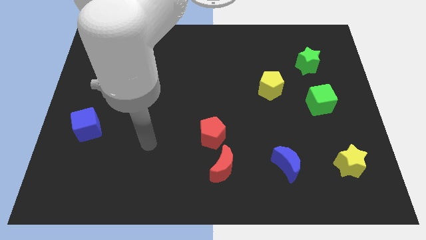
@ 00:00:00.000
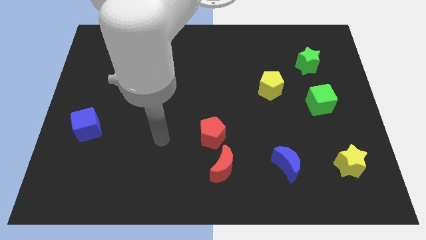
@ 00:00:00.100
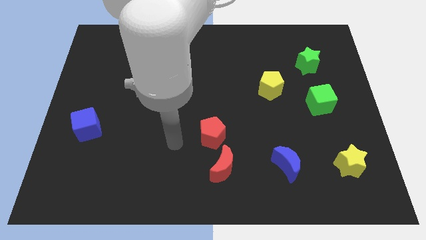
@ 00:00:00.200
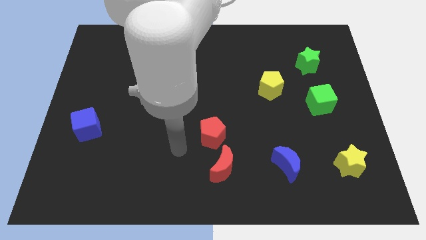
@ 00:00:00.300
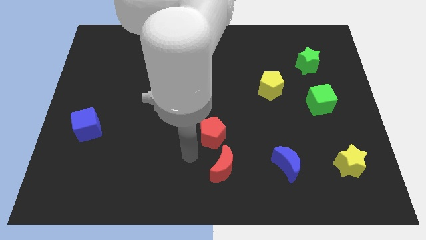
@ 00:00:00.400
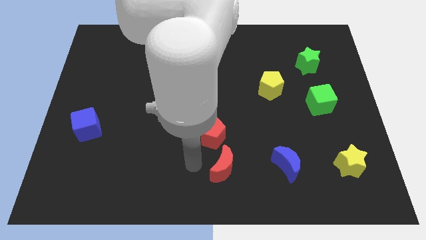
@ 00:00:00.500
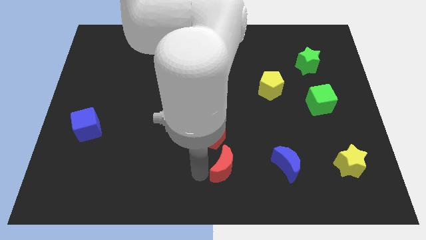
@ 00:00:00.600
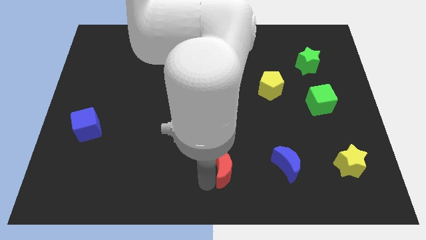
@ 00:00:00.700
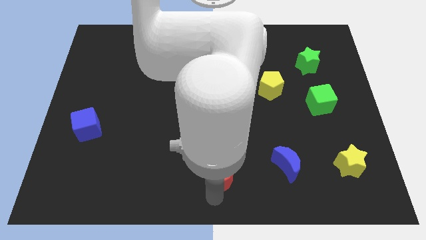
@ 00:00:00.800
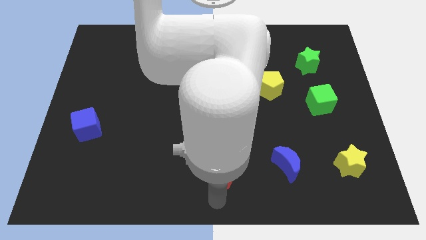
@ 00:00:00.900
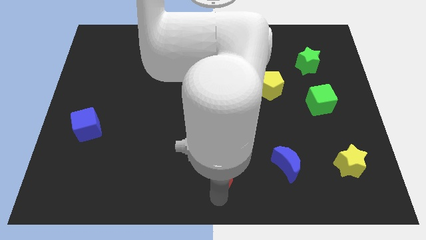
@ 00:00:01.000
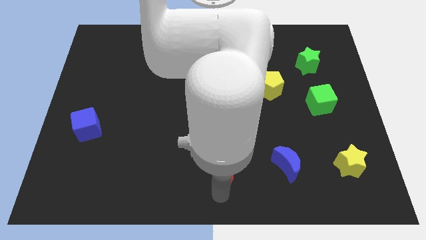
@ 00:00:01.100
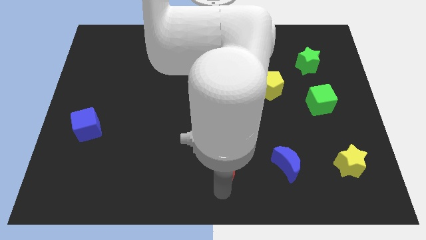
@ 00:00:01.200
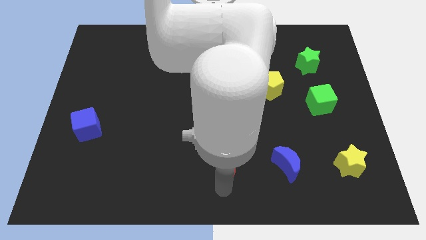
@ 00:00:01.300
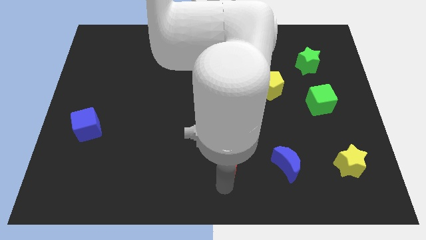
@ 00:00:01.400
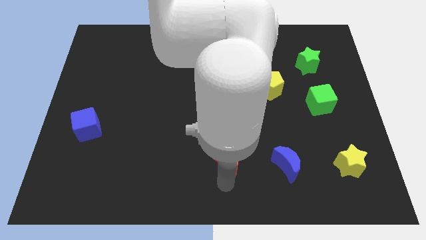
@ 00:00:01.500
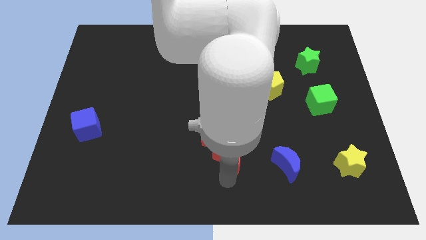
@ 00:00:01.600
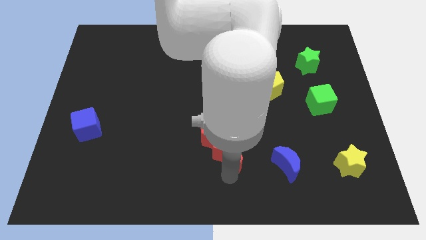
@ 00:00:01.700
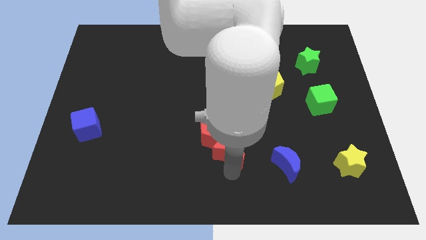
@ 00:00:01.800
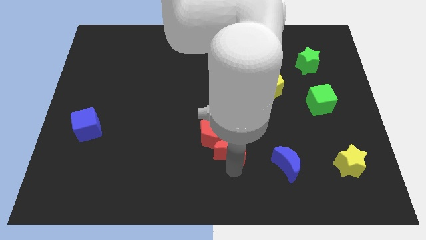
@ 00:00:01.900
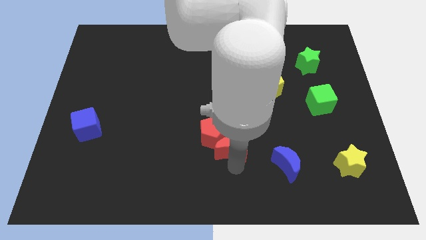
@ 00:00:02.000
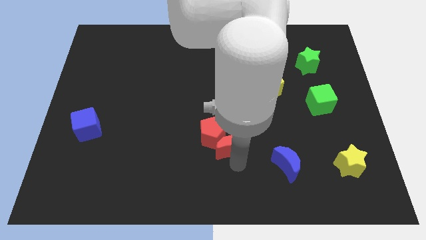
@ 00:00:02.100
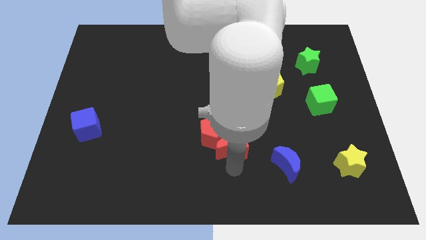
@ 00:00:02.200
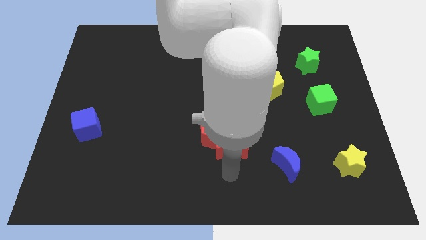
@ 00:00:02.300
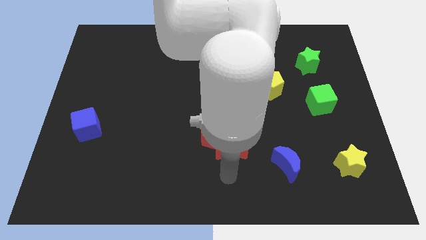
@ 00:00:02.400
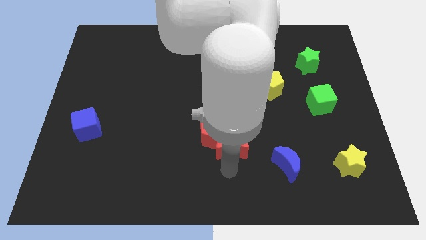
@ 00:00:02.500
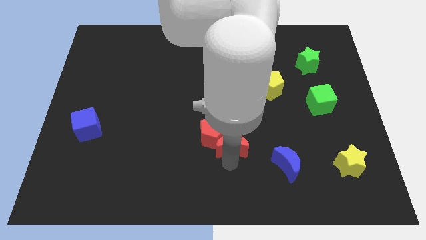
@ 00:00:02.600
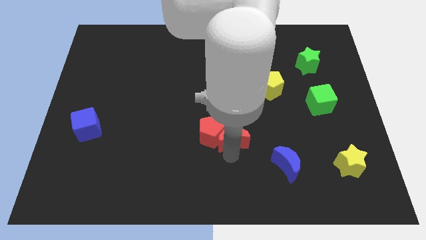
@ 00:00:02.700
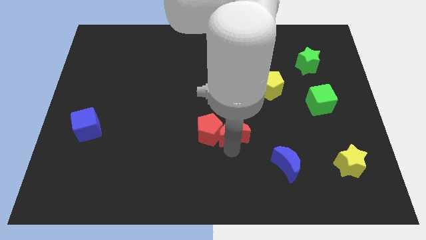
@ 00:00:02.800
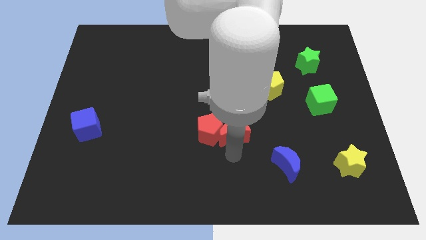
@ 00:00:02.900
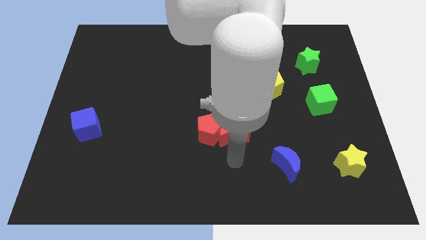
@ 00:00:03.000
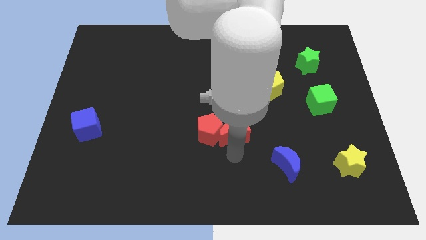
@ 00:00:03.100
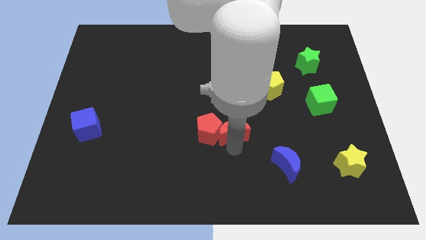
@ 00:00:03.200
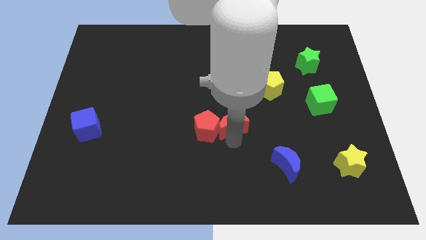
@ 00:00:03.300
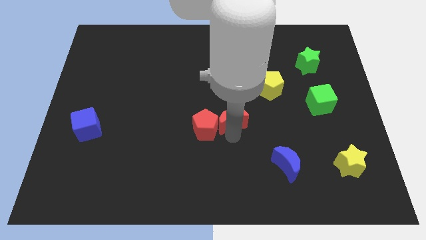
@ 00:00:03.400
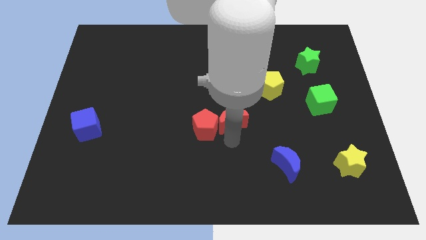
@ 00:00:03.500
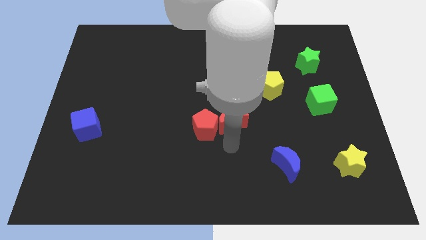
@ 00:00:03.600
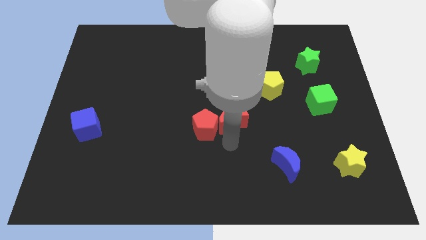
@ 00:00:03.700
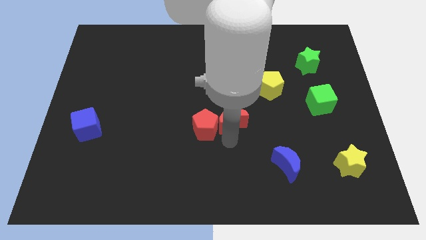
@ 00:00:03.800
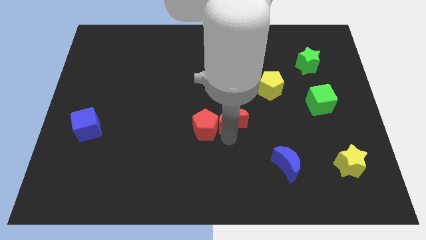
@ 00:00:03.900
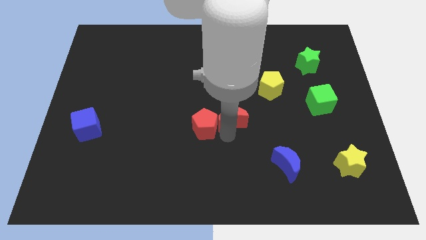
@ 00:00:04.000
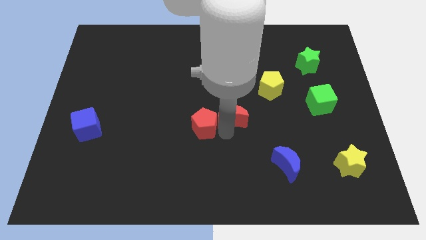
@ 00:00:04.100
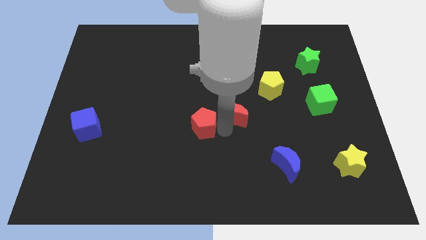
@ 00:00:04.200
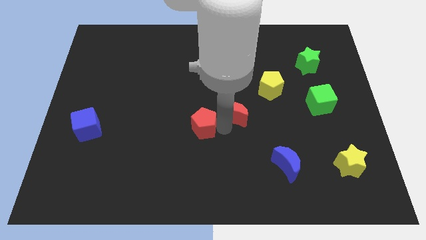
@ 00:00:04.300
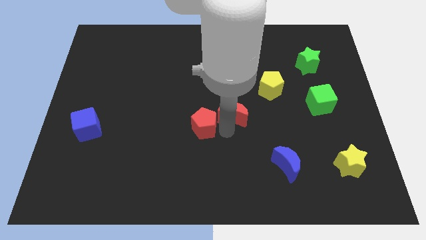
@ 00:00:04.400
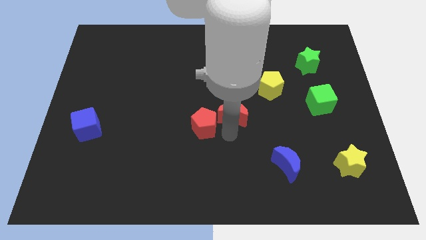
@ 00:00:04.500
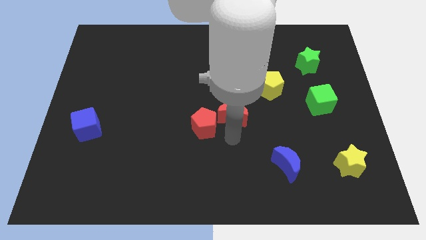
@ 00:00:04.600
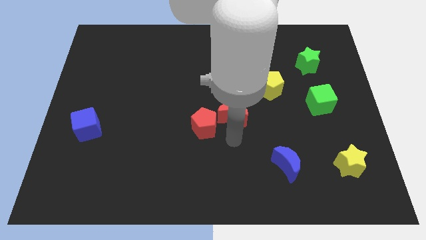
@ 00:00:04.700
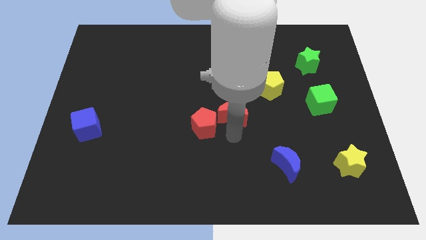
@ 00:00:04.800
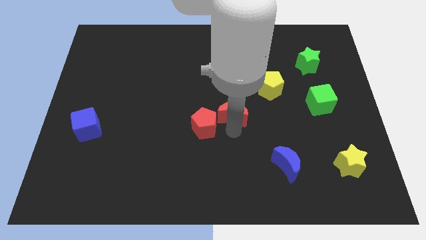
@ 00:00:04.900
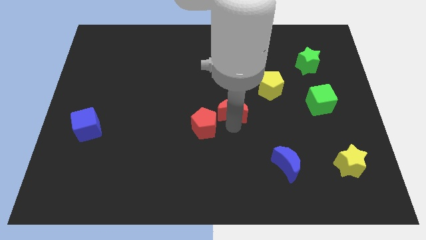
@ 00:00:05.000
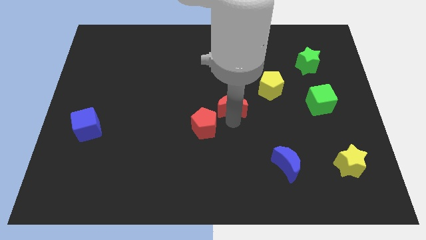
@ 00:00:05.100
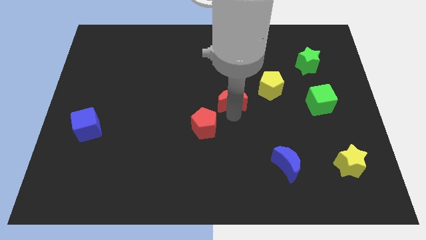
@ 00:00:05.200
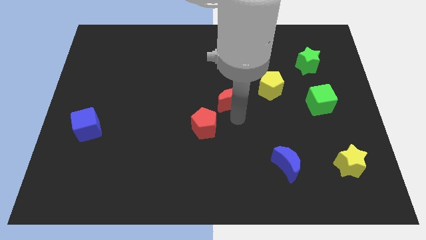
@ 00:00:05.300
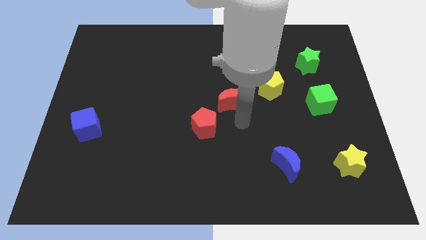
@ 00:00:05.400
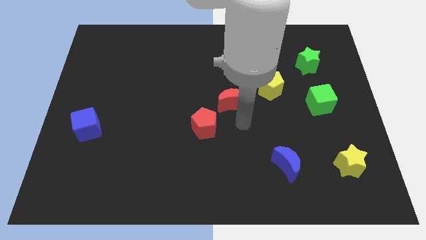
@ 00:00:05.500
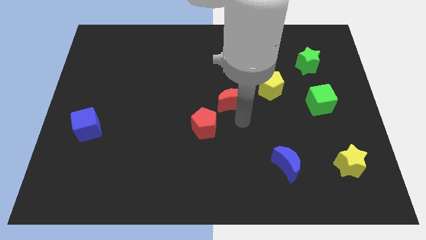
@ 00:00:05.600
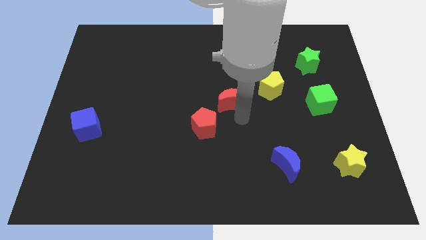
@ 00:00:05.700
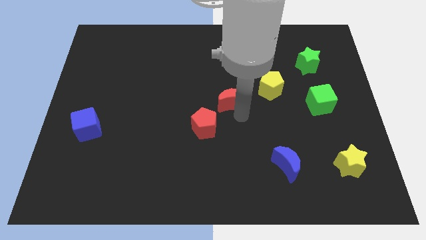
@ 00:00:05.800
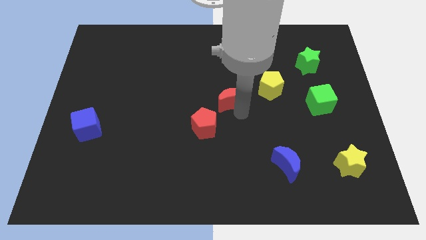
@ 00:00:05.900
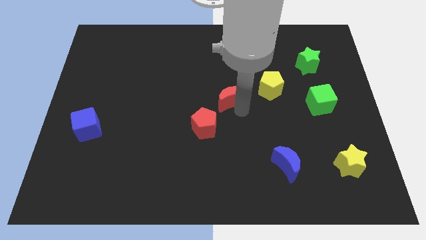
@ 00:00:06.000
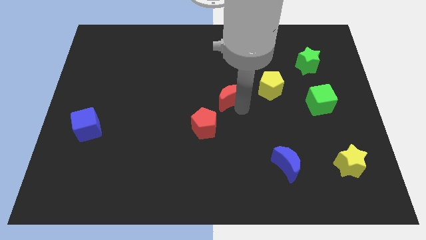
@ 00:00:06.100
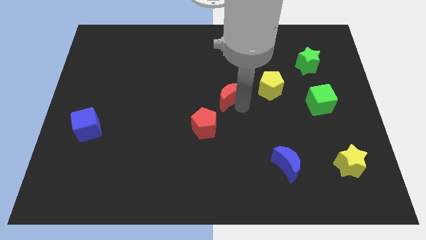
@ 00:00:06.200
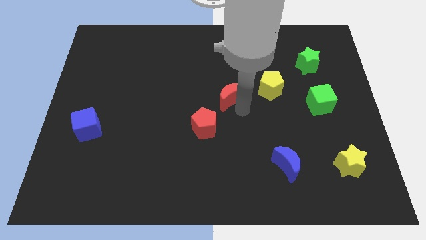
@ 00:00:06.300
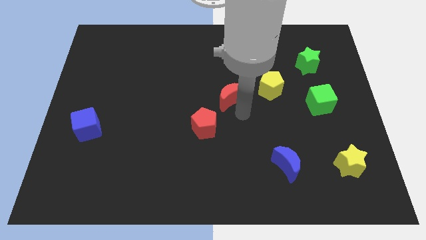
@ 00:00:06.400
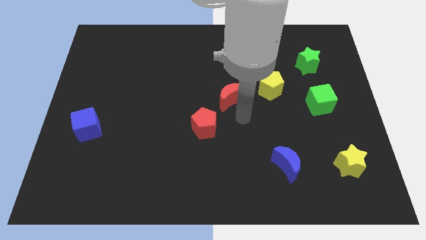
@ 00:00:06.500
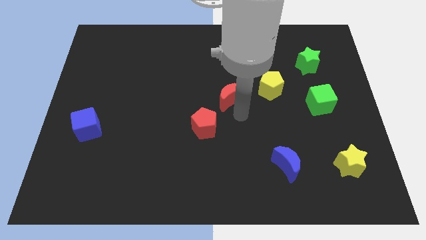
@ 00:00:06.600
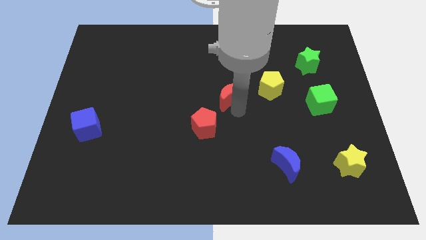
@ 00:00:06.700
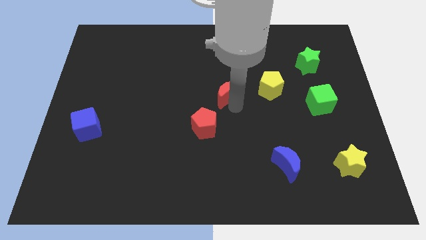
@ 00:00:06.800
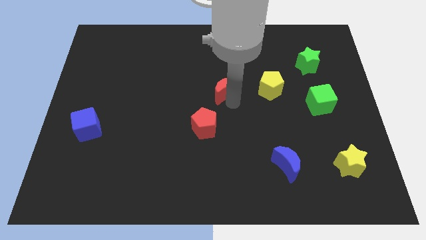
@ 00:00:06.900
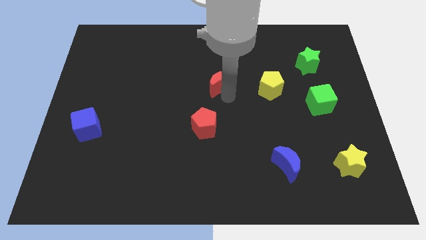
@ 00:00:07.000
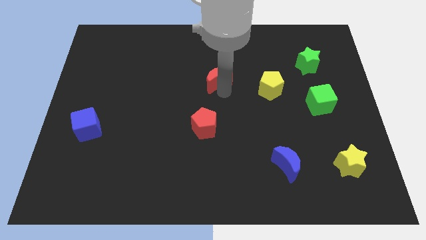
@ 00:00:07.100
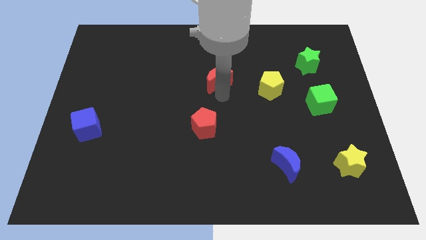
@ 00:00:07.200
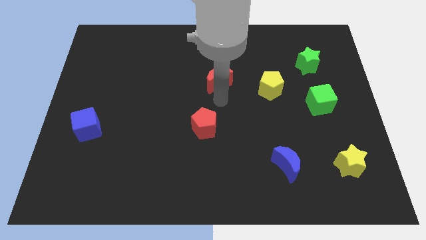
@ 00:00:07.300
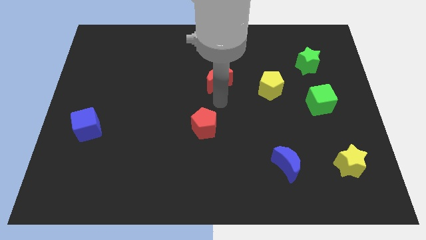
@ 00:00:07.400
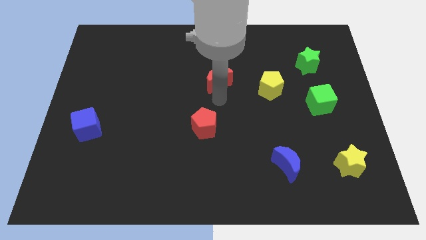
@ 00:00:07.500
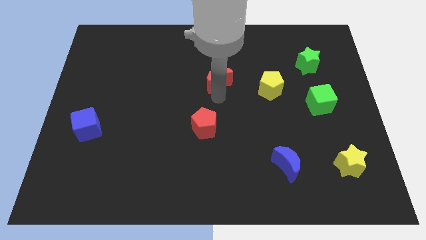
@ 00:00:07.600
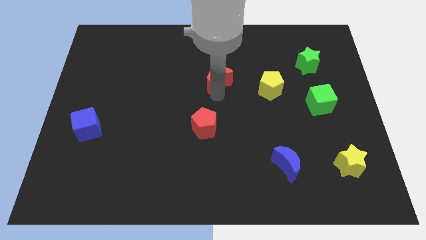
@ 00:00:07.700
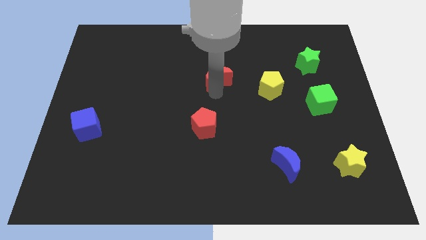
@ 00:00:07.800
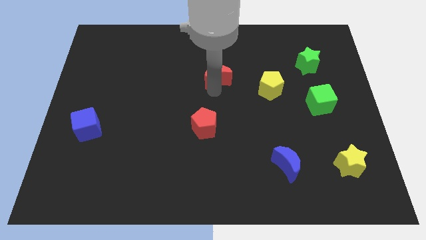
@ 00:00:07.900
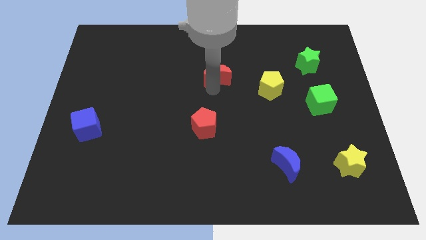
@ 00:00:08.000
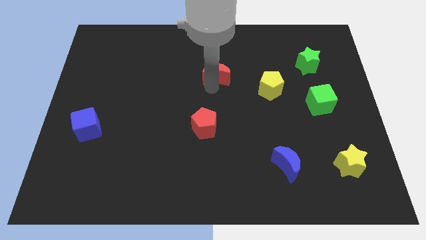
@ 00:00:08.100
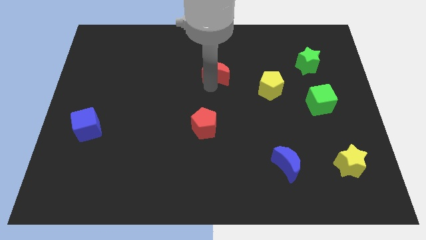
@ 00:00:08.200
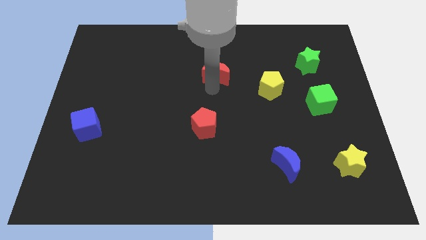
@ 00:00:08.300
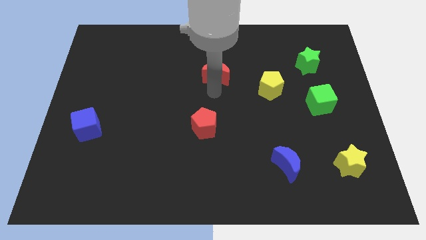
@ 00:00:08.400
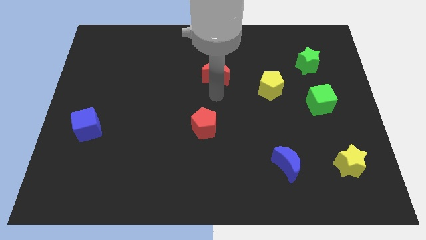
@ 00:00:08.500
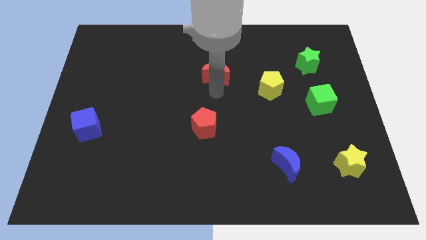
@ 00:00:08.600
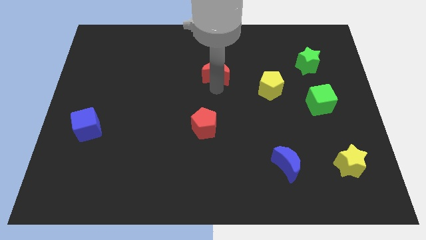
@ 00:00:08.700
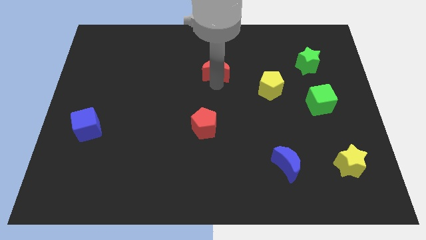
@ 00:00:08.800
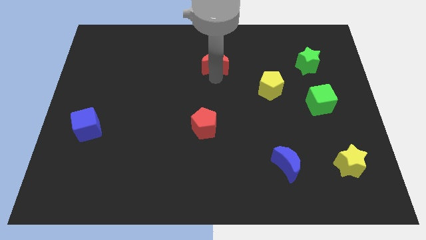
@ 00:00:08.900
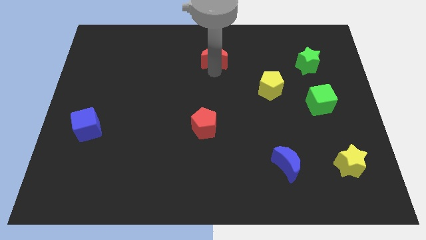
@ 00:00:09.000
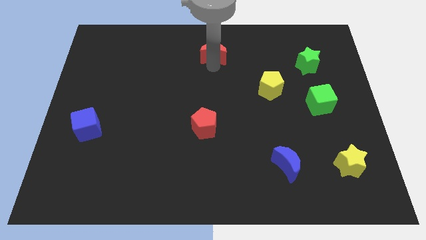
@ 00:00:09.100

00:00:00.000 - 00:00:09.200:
slide the red moon to the towards your base
